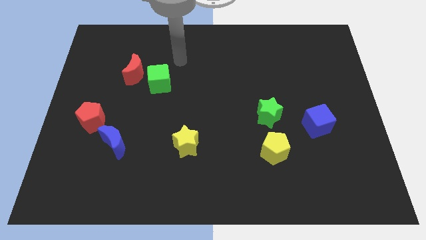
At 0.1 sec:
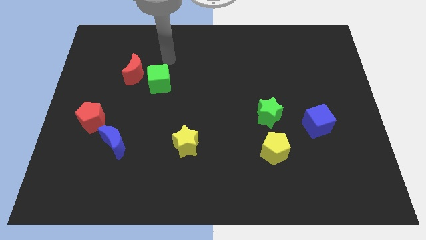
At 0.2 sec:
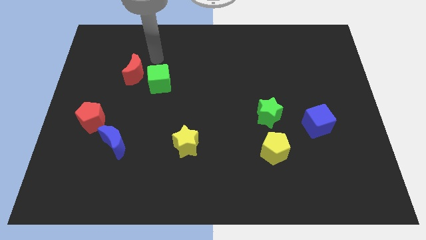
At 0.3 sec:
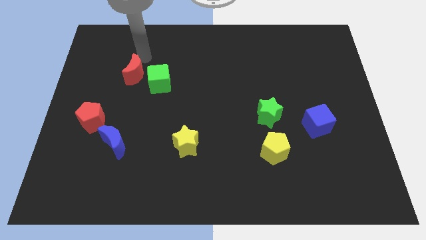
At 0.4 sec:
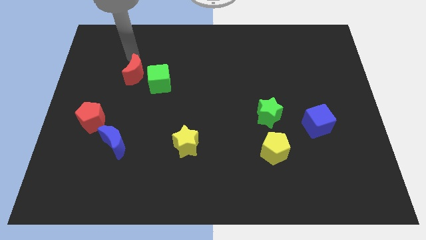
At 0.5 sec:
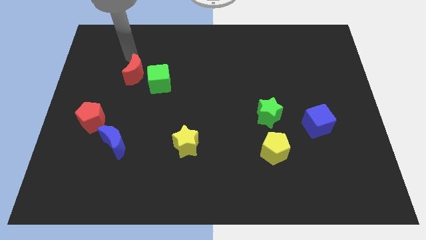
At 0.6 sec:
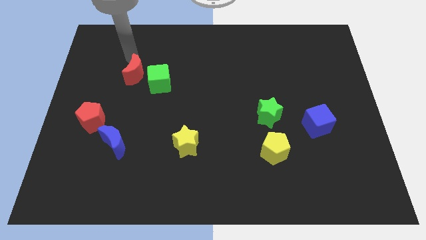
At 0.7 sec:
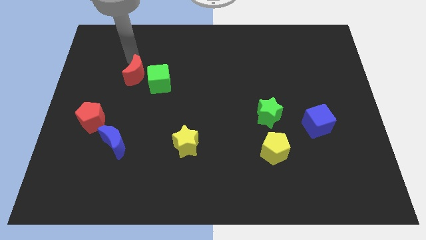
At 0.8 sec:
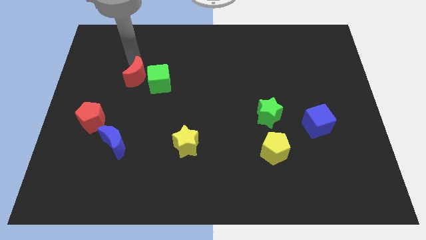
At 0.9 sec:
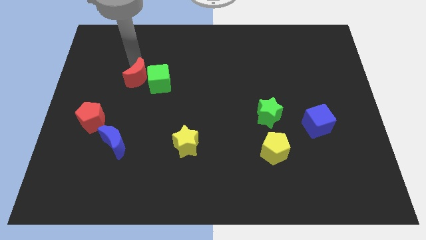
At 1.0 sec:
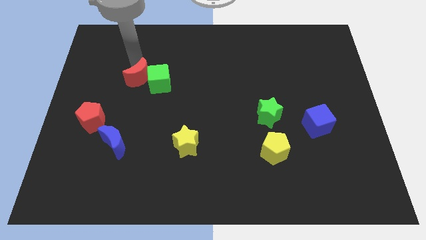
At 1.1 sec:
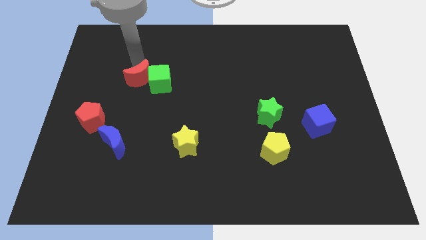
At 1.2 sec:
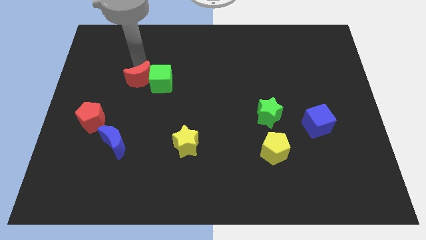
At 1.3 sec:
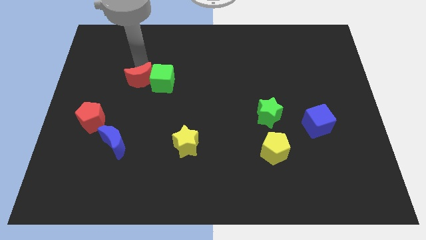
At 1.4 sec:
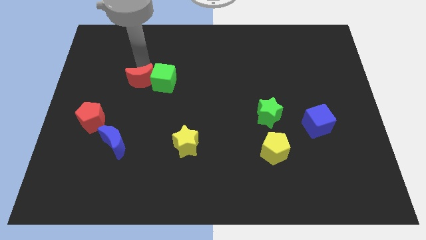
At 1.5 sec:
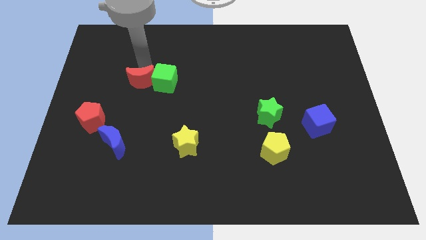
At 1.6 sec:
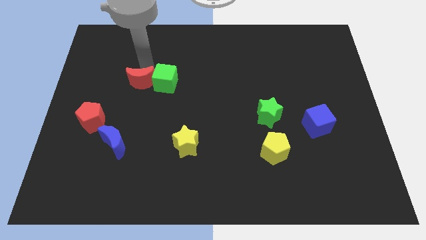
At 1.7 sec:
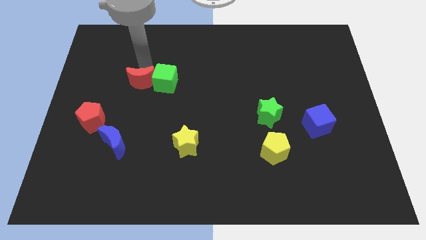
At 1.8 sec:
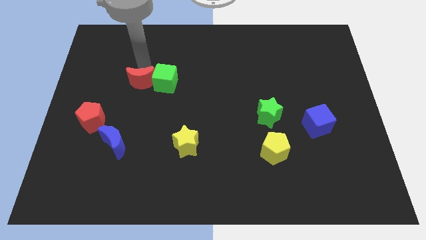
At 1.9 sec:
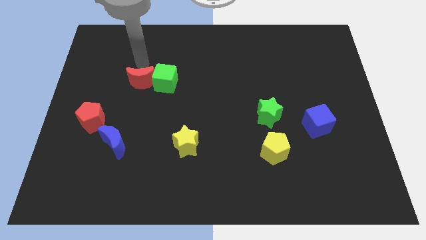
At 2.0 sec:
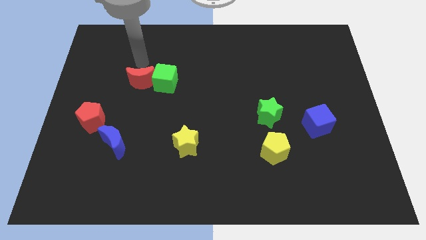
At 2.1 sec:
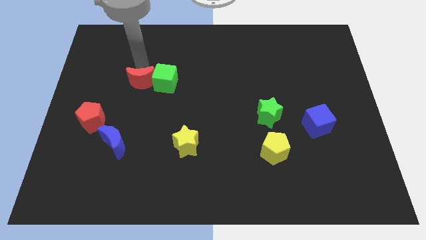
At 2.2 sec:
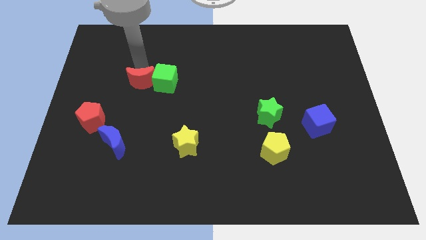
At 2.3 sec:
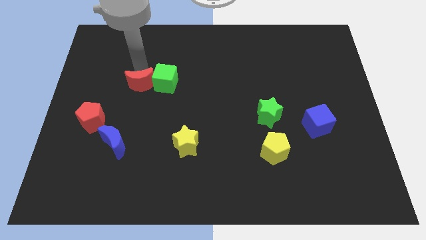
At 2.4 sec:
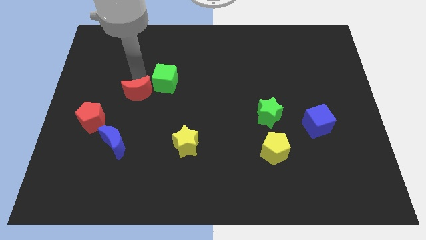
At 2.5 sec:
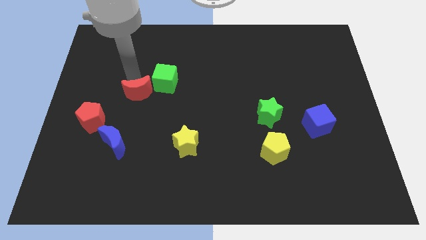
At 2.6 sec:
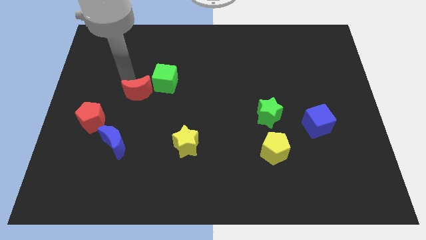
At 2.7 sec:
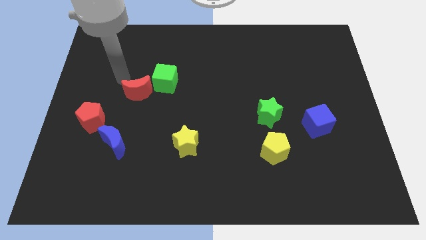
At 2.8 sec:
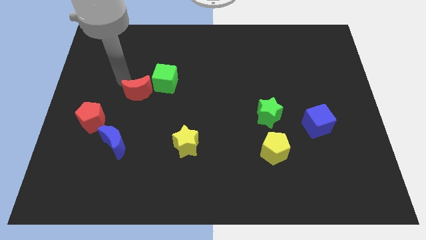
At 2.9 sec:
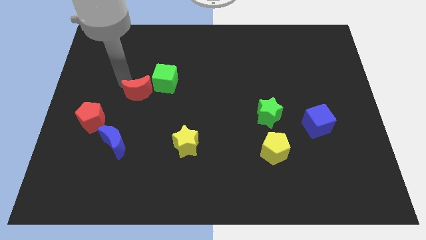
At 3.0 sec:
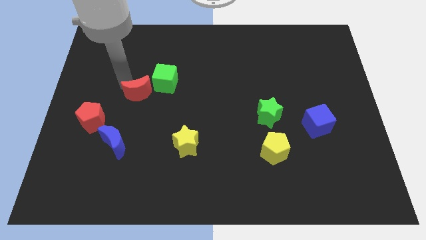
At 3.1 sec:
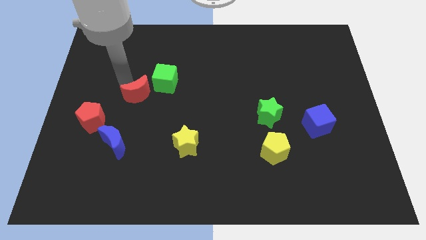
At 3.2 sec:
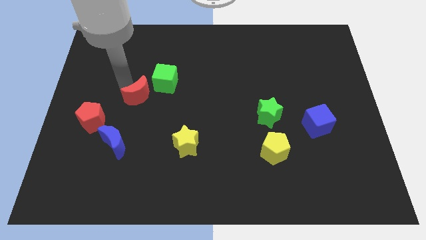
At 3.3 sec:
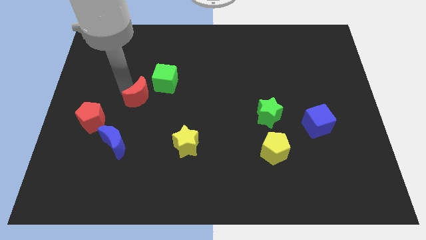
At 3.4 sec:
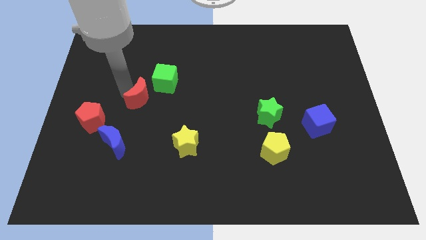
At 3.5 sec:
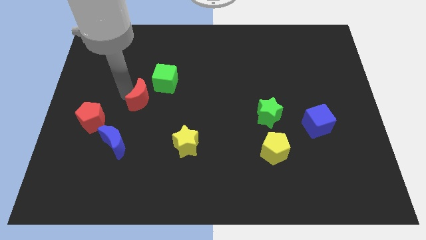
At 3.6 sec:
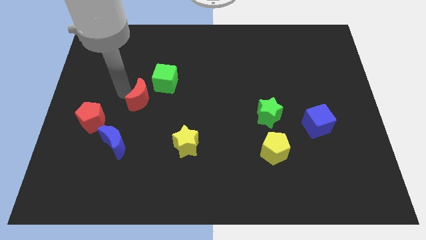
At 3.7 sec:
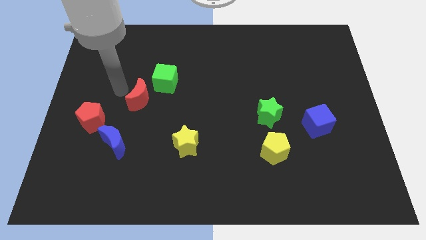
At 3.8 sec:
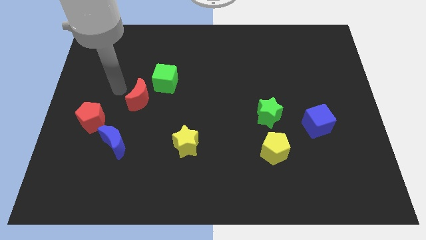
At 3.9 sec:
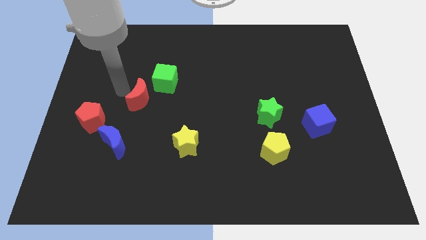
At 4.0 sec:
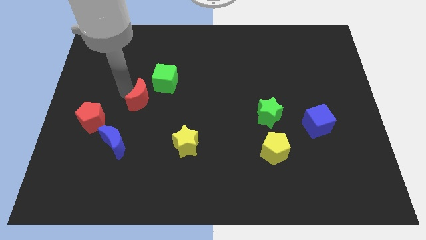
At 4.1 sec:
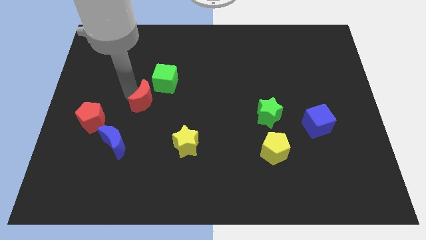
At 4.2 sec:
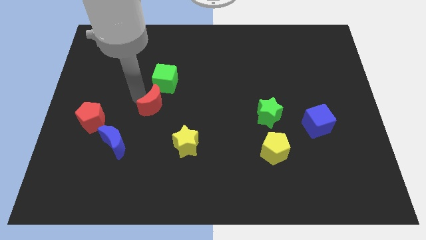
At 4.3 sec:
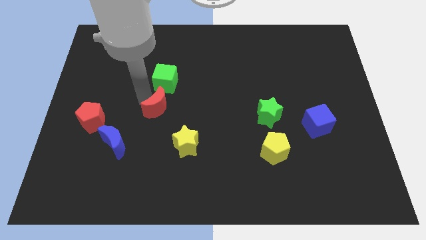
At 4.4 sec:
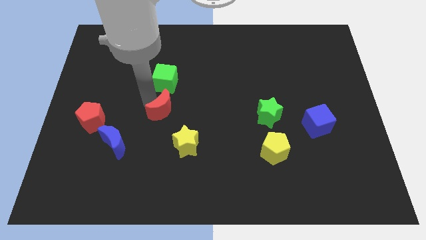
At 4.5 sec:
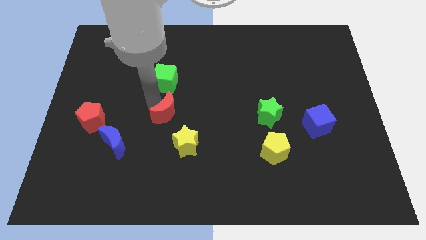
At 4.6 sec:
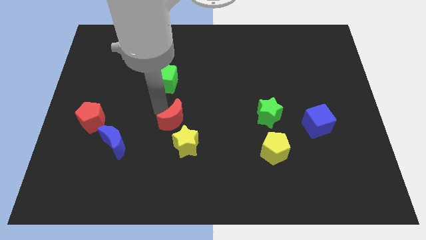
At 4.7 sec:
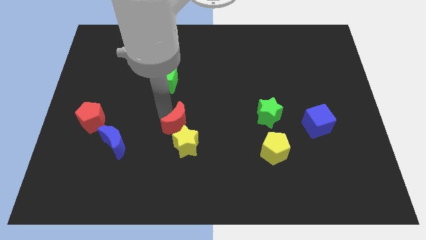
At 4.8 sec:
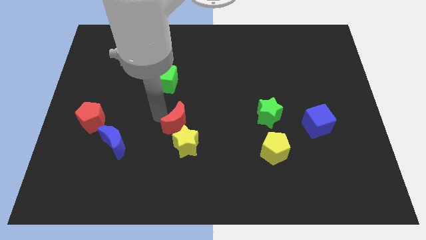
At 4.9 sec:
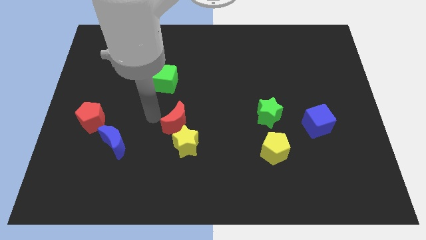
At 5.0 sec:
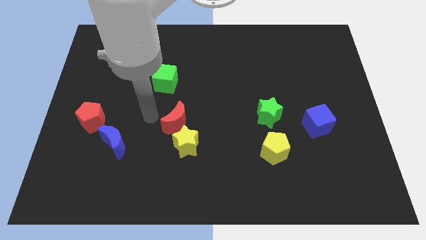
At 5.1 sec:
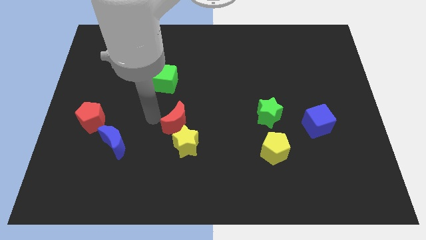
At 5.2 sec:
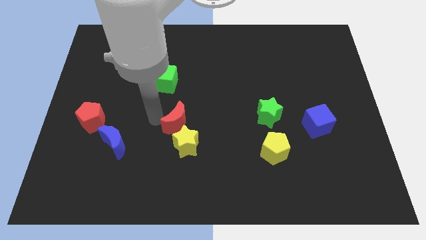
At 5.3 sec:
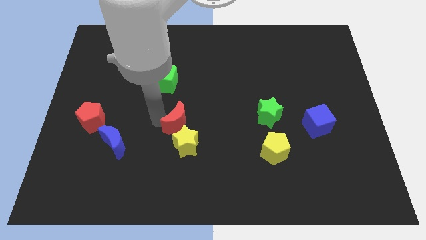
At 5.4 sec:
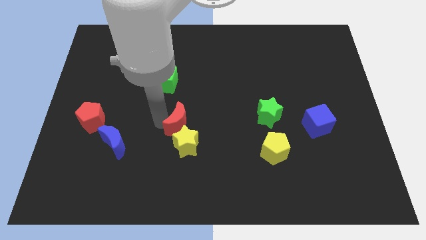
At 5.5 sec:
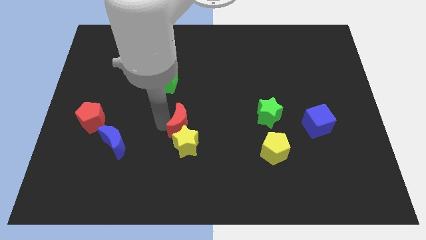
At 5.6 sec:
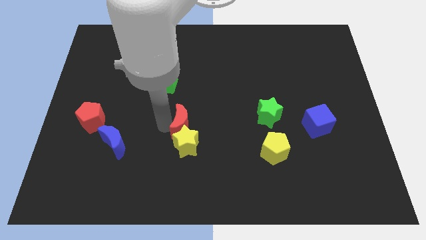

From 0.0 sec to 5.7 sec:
move the red moon down and then to the right

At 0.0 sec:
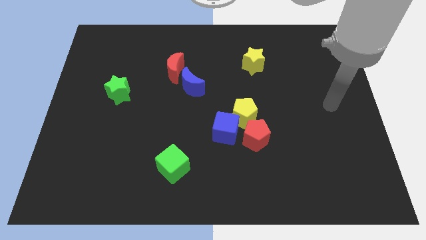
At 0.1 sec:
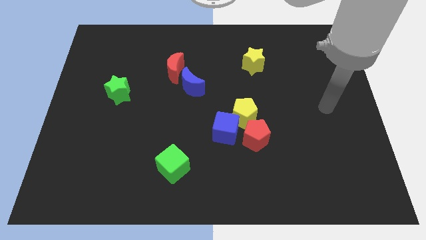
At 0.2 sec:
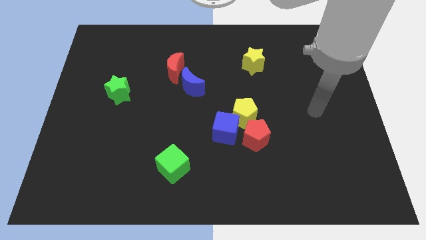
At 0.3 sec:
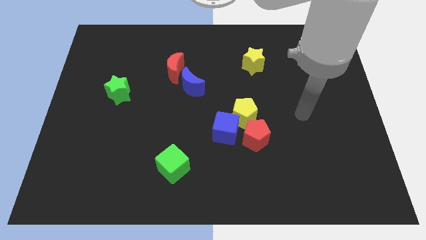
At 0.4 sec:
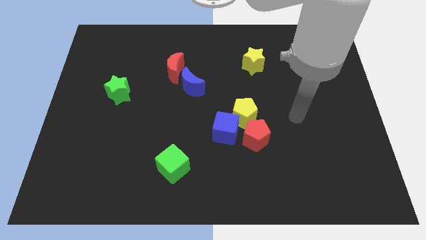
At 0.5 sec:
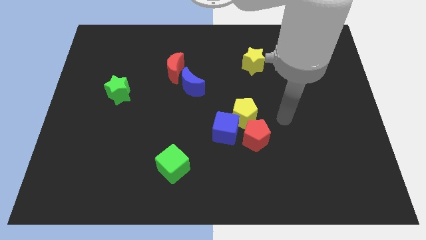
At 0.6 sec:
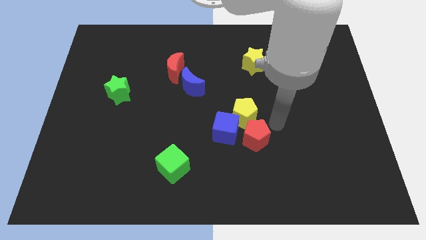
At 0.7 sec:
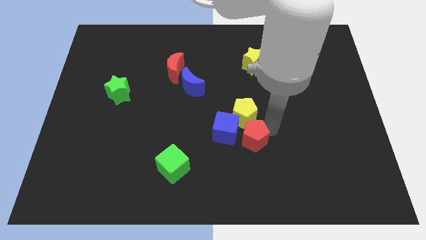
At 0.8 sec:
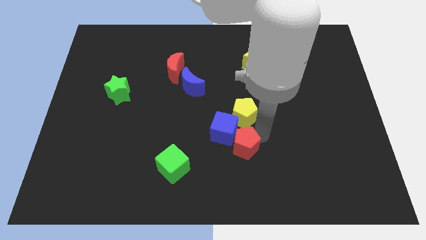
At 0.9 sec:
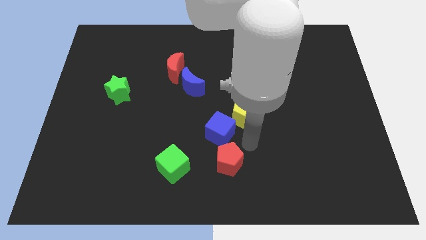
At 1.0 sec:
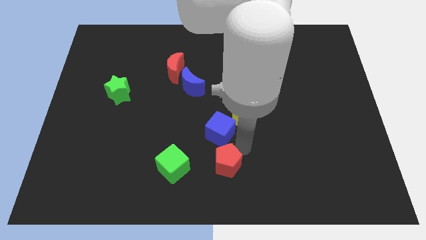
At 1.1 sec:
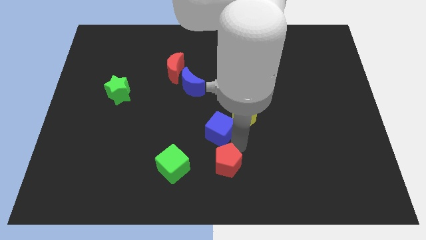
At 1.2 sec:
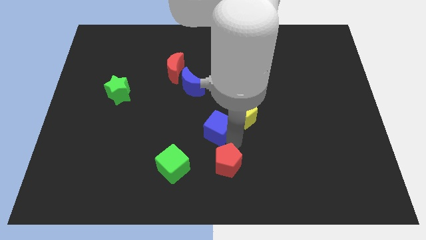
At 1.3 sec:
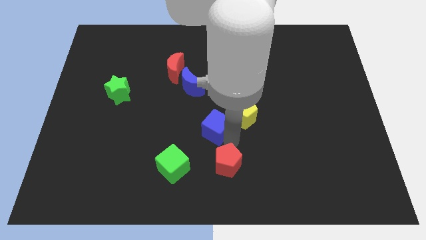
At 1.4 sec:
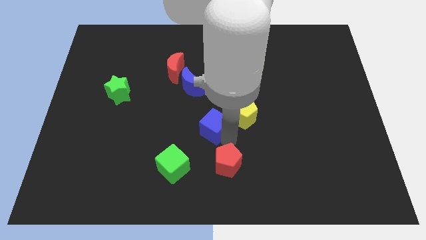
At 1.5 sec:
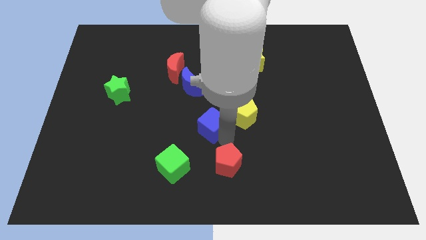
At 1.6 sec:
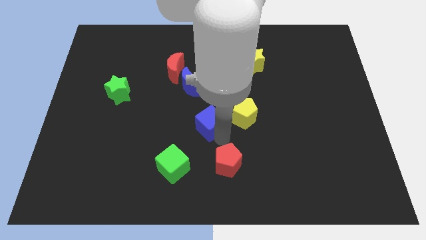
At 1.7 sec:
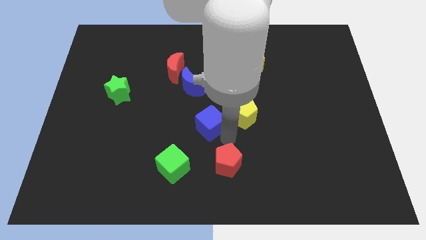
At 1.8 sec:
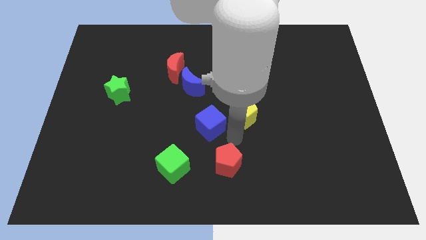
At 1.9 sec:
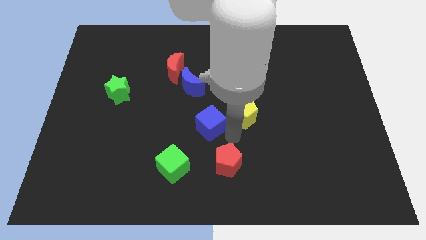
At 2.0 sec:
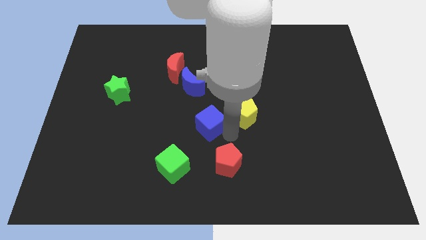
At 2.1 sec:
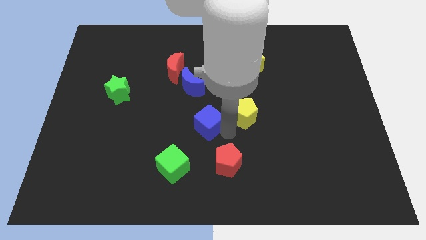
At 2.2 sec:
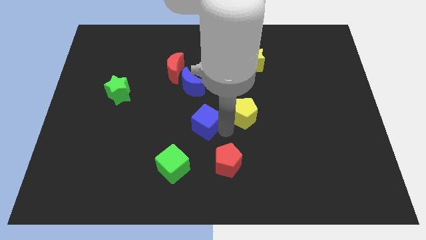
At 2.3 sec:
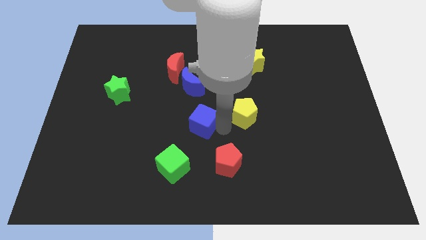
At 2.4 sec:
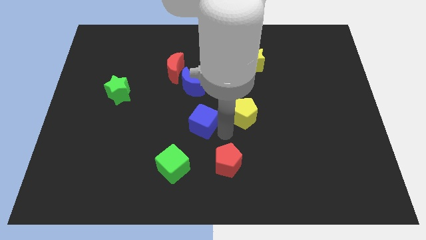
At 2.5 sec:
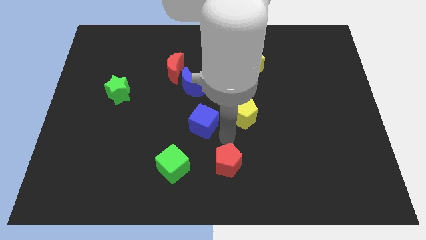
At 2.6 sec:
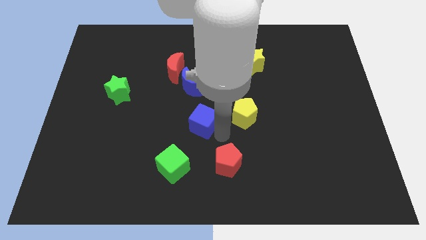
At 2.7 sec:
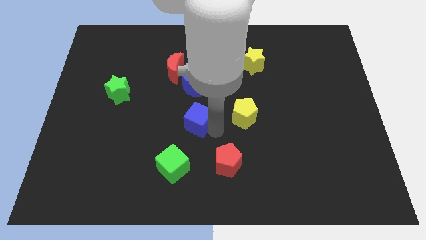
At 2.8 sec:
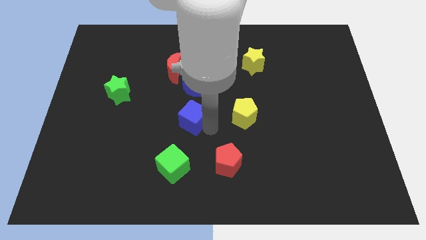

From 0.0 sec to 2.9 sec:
slightly slide the blue cube diagonally up and left
